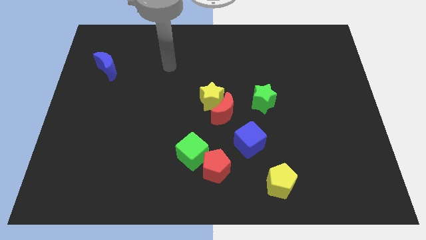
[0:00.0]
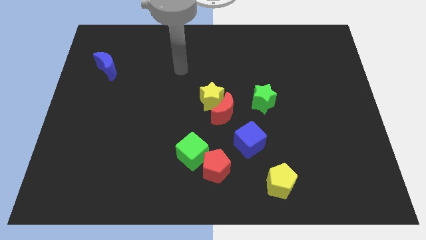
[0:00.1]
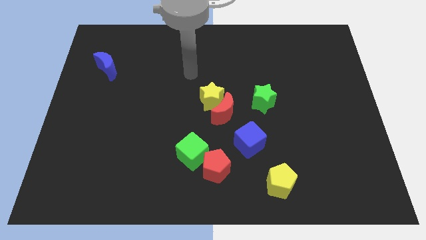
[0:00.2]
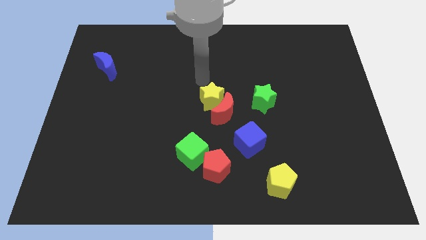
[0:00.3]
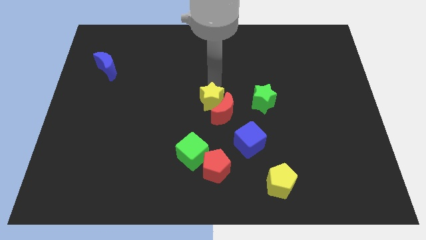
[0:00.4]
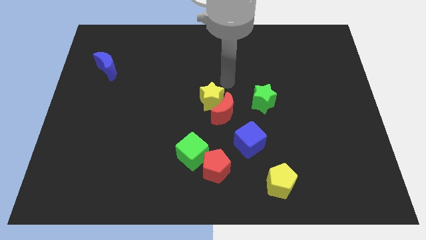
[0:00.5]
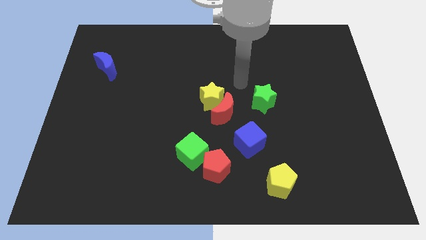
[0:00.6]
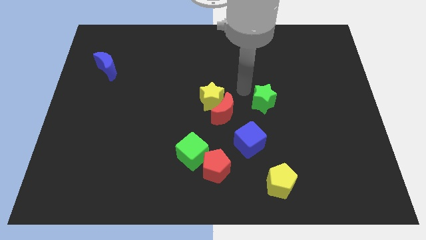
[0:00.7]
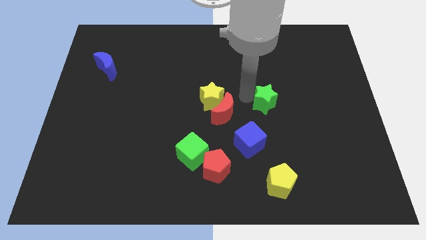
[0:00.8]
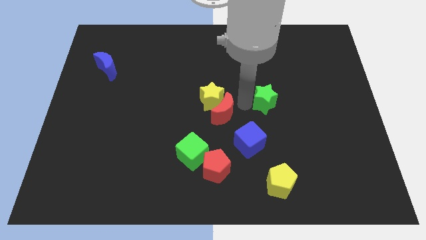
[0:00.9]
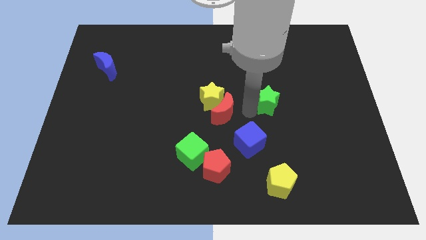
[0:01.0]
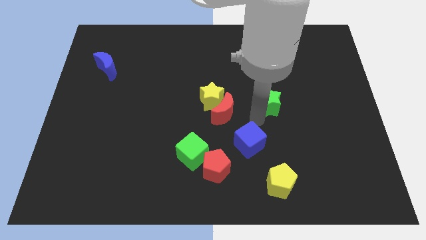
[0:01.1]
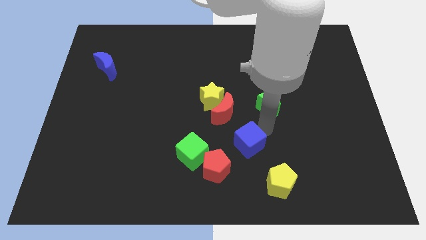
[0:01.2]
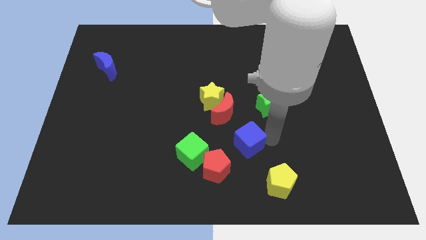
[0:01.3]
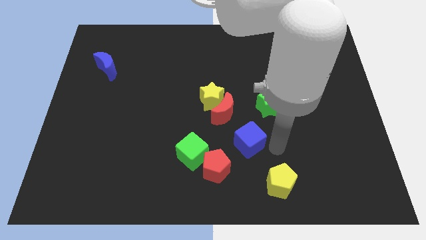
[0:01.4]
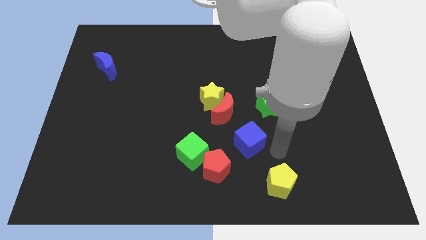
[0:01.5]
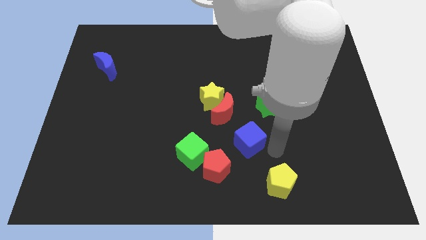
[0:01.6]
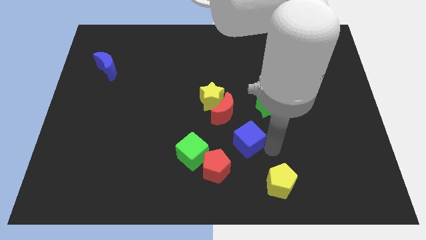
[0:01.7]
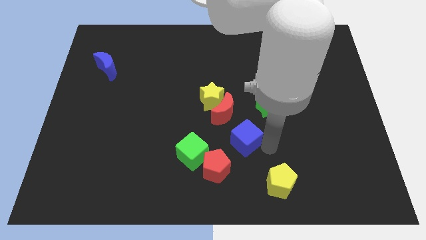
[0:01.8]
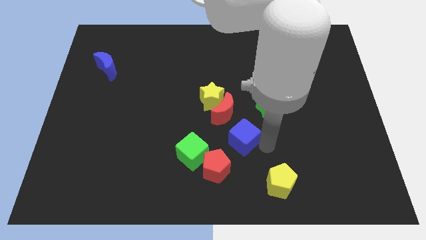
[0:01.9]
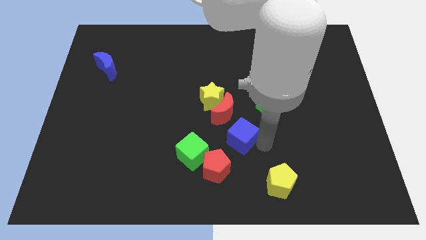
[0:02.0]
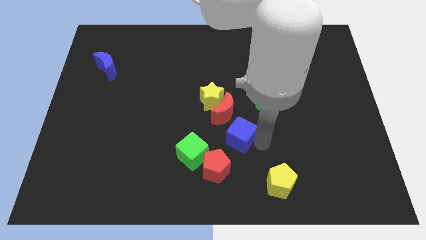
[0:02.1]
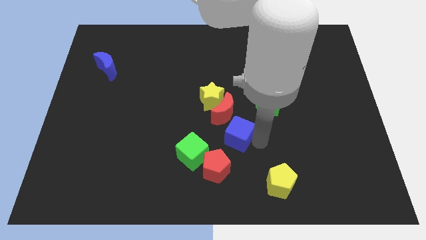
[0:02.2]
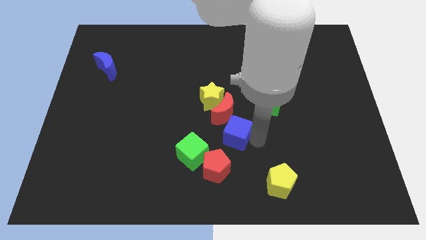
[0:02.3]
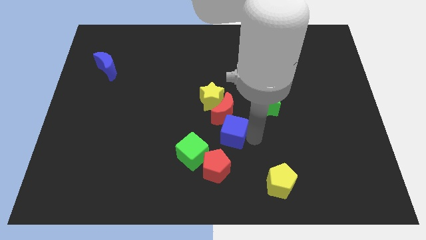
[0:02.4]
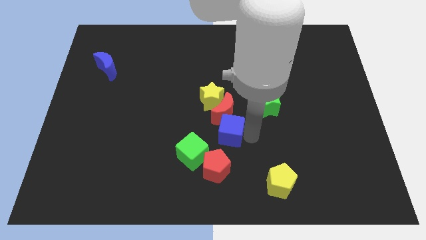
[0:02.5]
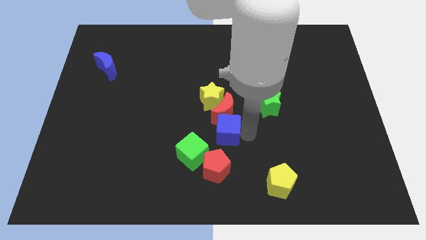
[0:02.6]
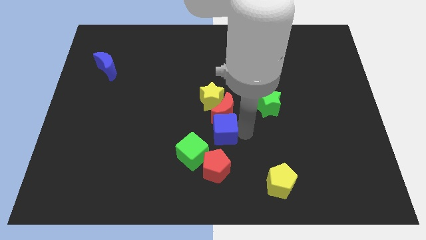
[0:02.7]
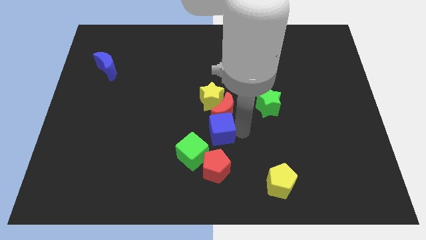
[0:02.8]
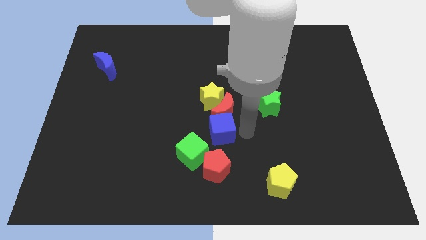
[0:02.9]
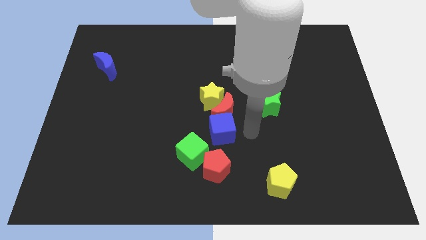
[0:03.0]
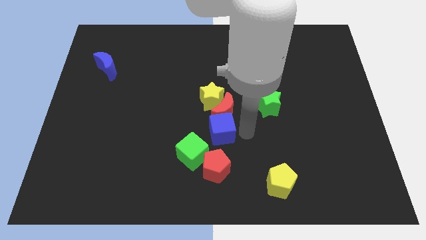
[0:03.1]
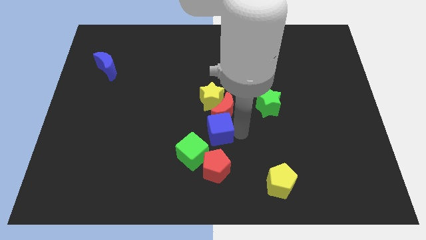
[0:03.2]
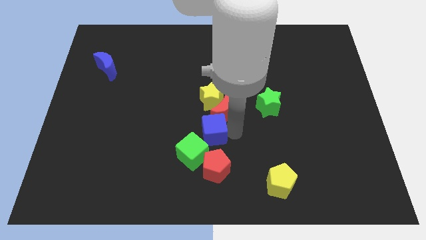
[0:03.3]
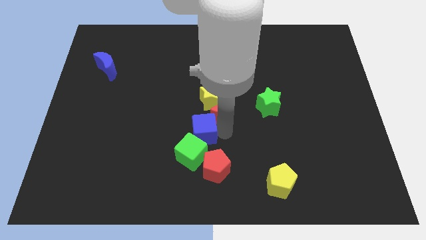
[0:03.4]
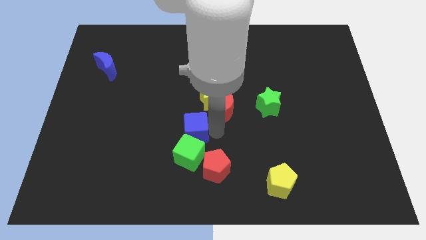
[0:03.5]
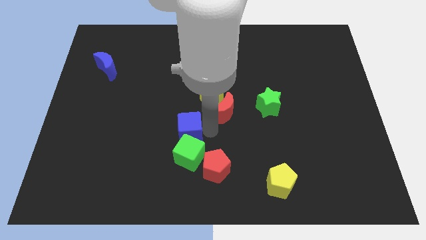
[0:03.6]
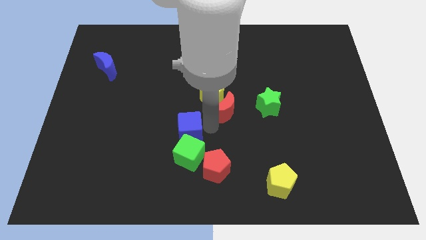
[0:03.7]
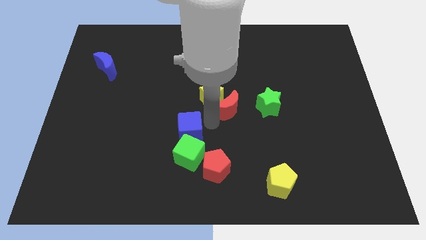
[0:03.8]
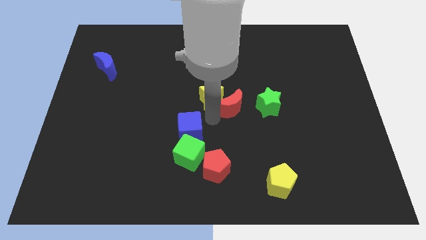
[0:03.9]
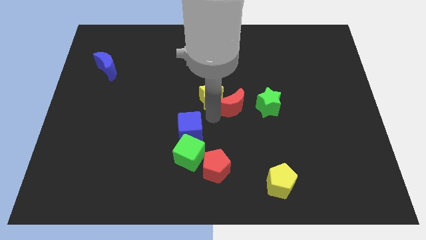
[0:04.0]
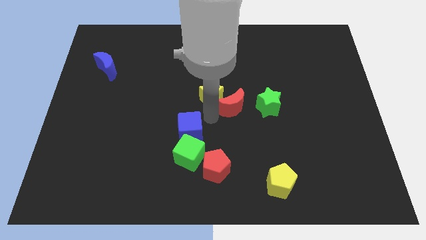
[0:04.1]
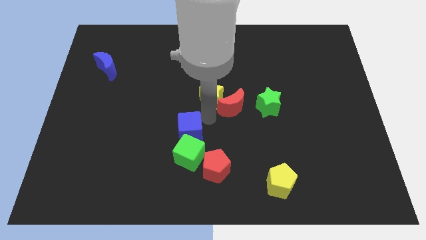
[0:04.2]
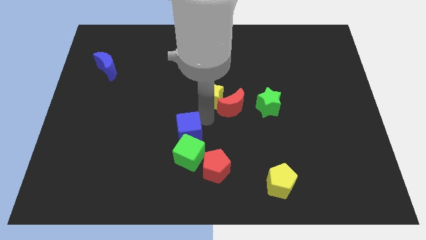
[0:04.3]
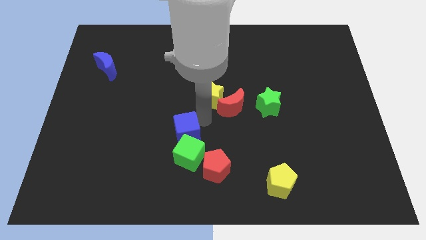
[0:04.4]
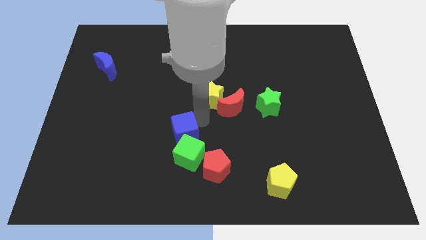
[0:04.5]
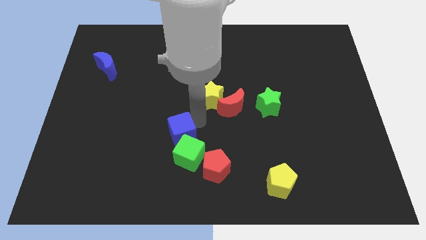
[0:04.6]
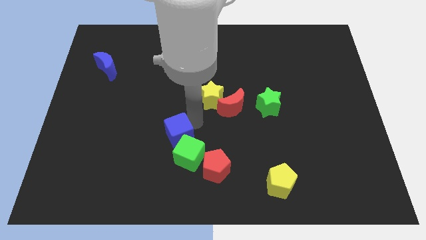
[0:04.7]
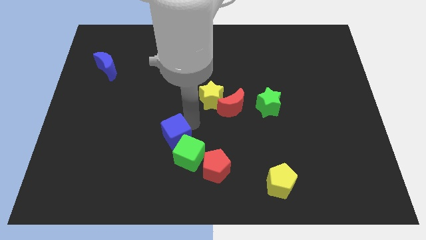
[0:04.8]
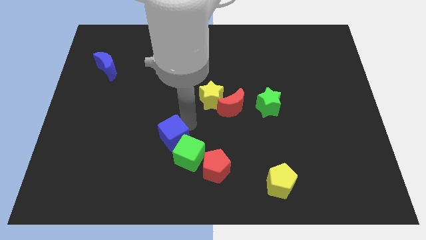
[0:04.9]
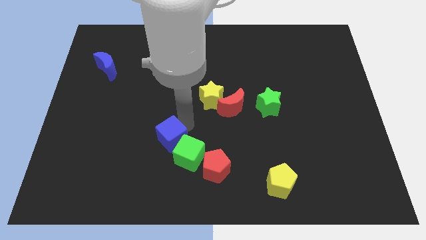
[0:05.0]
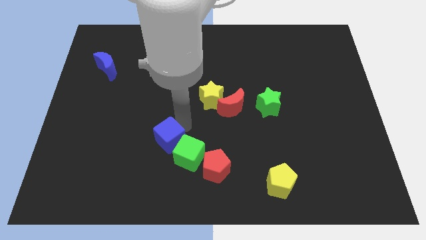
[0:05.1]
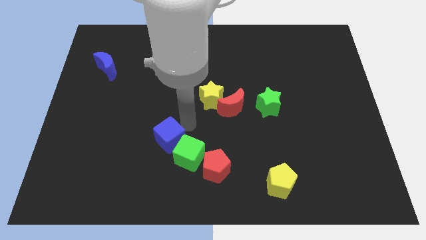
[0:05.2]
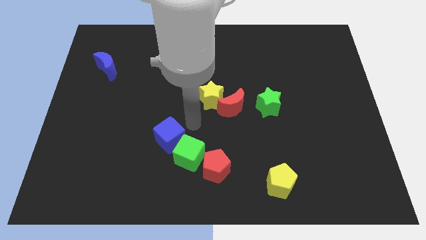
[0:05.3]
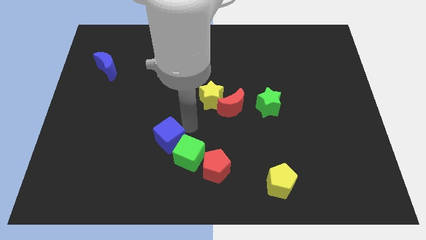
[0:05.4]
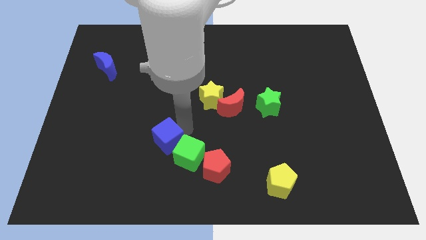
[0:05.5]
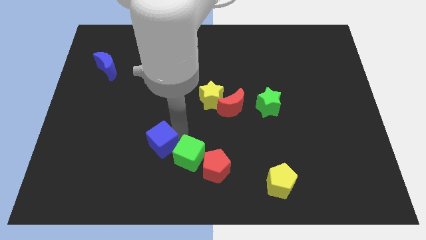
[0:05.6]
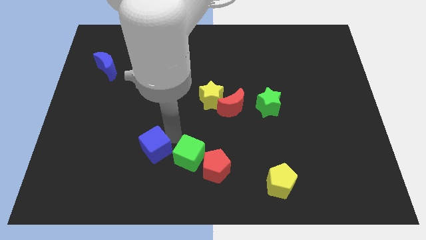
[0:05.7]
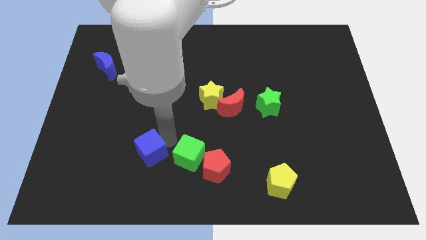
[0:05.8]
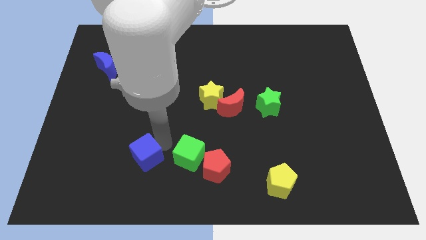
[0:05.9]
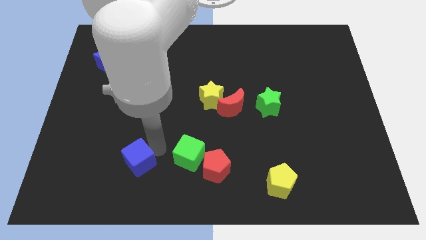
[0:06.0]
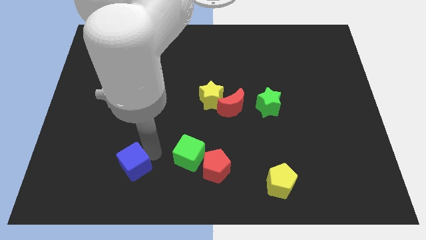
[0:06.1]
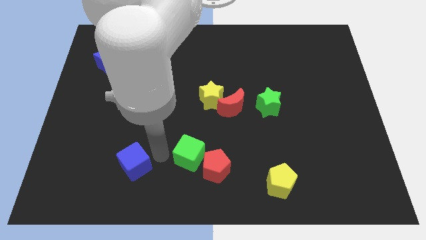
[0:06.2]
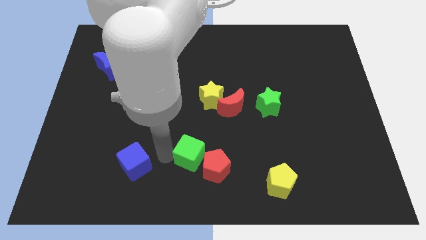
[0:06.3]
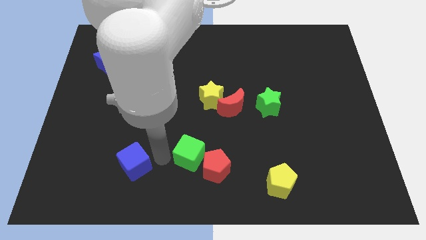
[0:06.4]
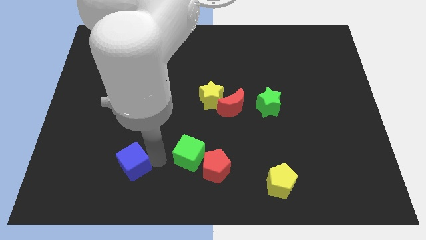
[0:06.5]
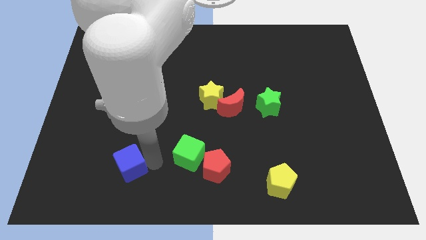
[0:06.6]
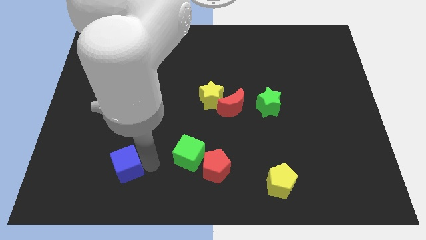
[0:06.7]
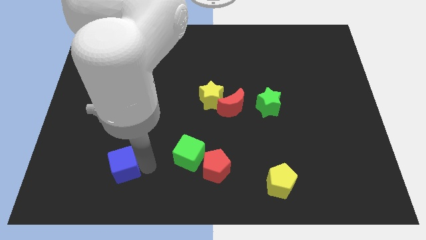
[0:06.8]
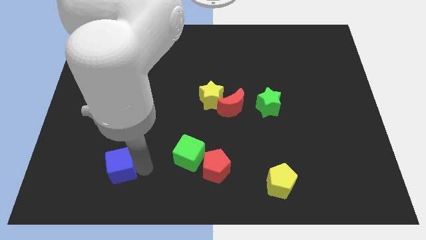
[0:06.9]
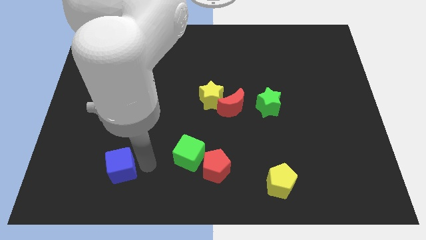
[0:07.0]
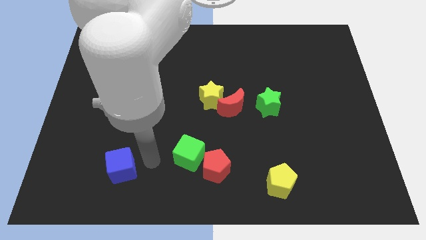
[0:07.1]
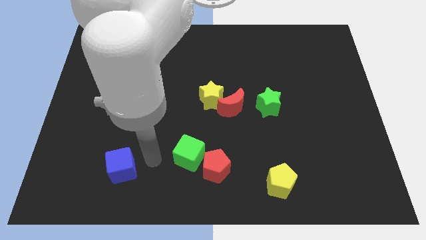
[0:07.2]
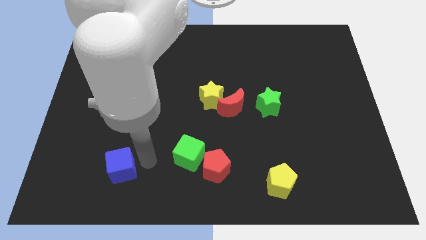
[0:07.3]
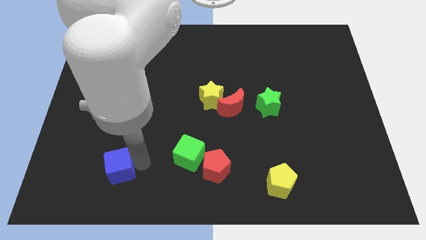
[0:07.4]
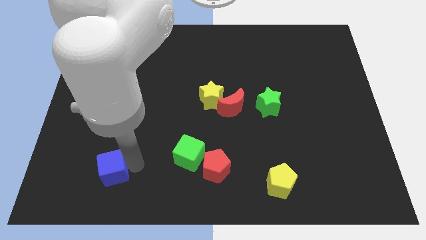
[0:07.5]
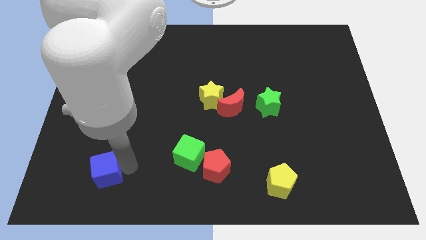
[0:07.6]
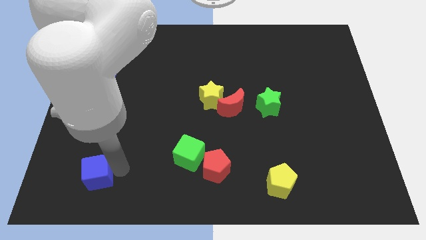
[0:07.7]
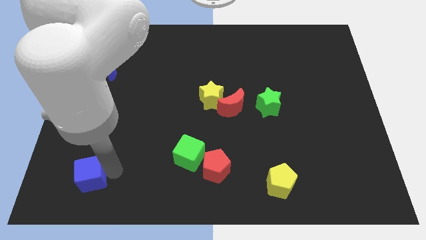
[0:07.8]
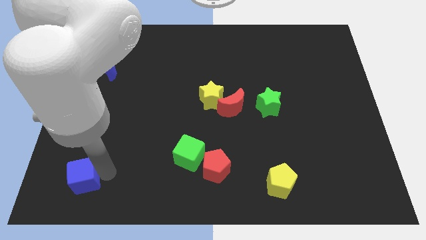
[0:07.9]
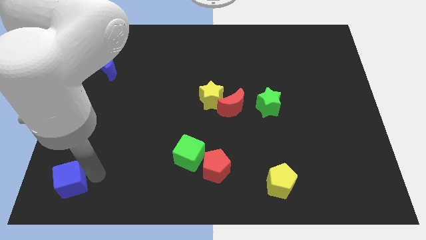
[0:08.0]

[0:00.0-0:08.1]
move the blue cube to the lower left corner
